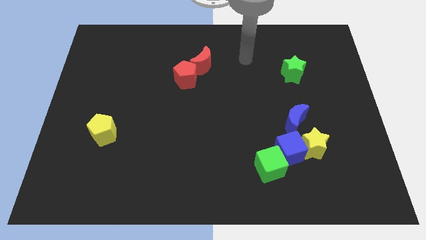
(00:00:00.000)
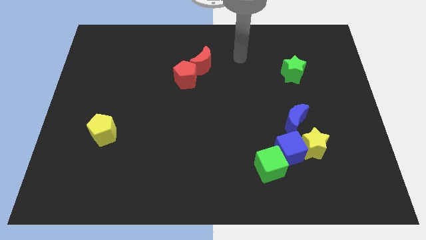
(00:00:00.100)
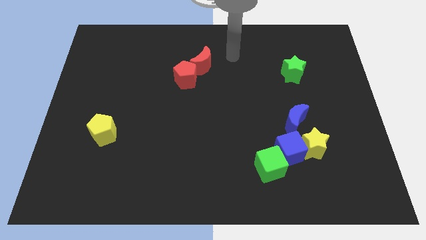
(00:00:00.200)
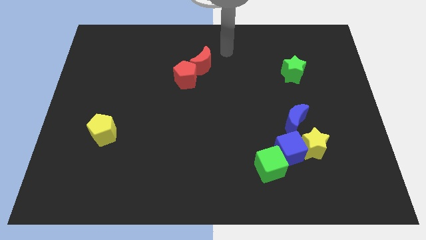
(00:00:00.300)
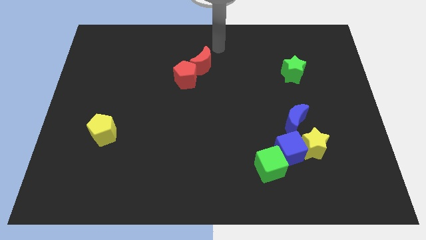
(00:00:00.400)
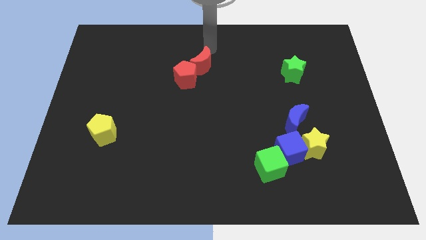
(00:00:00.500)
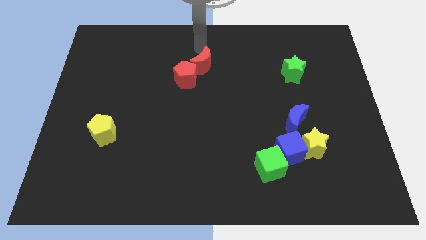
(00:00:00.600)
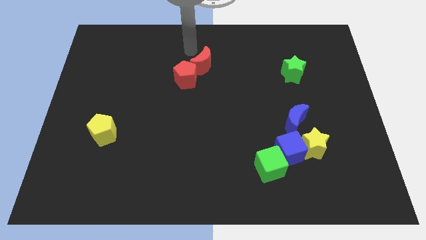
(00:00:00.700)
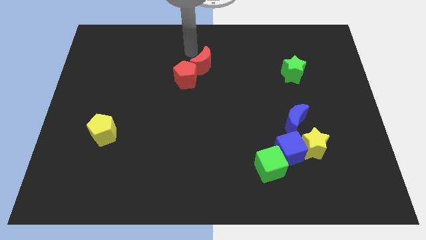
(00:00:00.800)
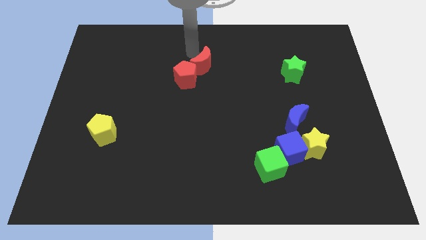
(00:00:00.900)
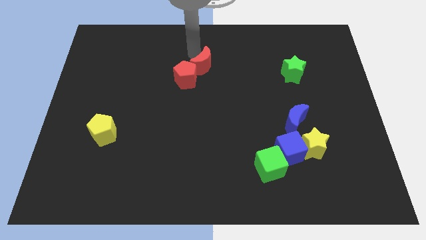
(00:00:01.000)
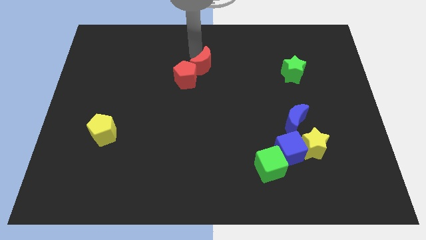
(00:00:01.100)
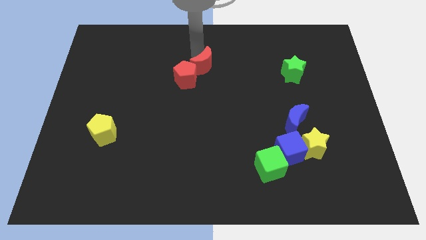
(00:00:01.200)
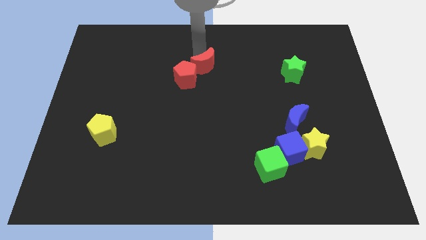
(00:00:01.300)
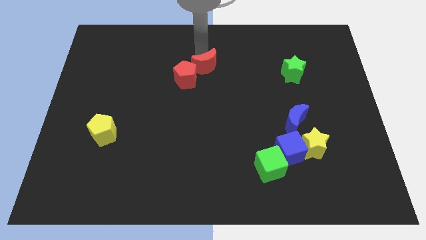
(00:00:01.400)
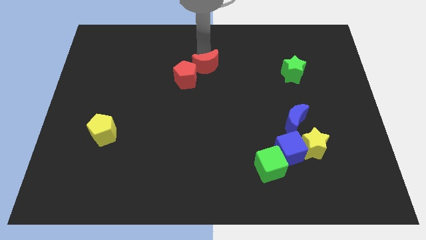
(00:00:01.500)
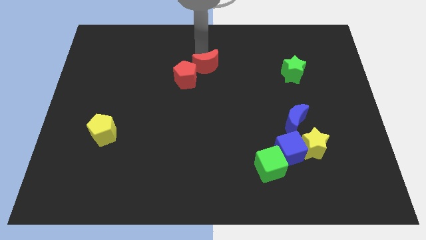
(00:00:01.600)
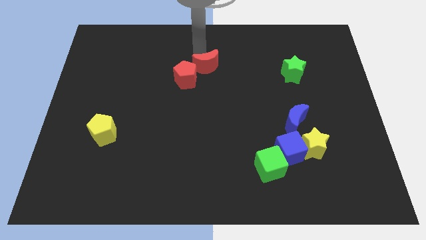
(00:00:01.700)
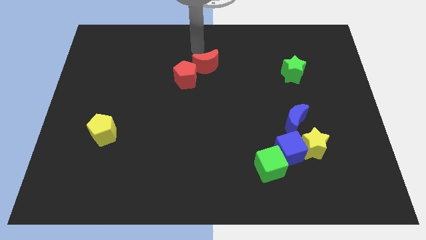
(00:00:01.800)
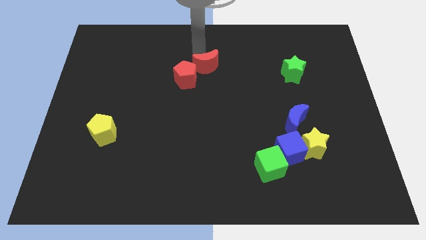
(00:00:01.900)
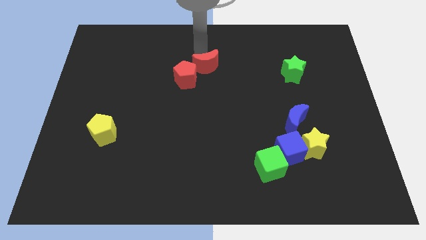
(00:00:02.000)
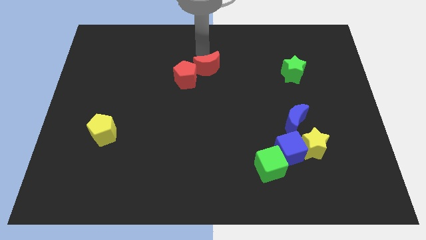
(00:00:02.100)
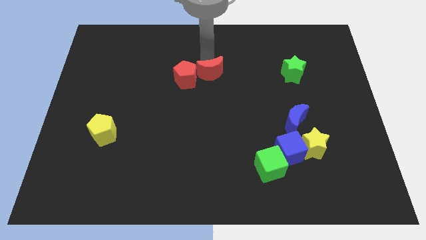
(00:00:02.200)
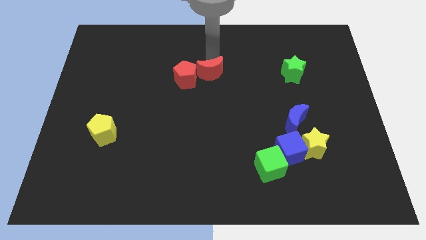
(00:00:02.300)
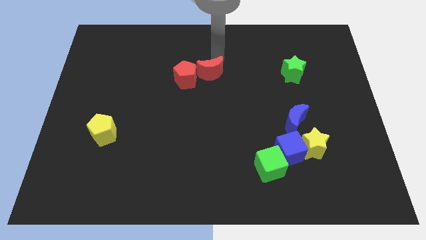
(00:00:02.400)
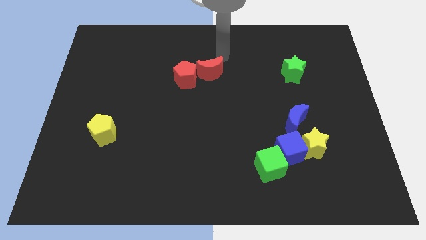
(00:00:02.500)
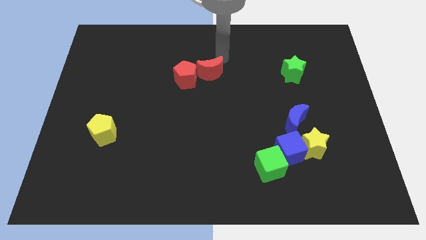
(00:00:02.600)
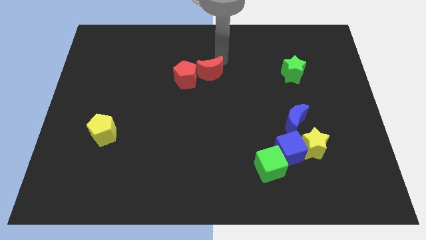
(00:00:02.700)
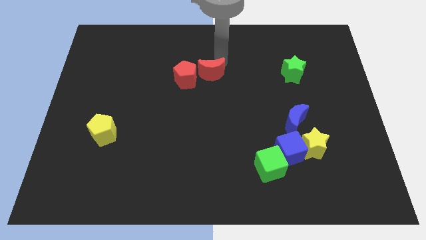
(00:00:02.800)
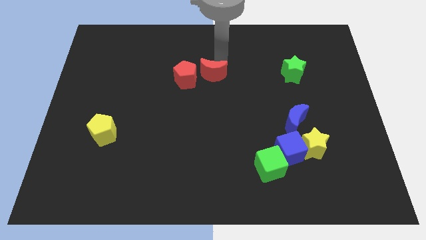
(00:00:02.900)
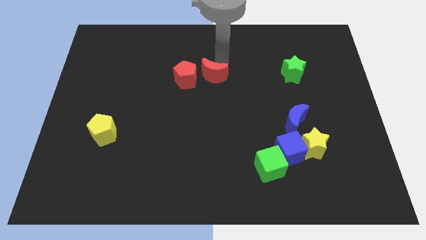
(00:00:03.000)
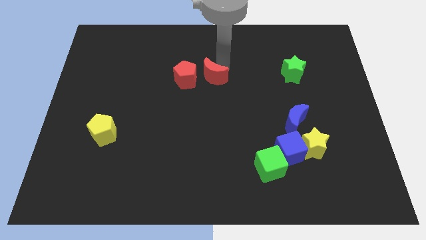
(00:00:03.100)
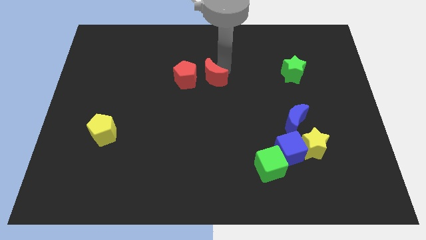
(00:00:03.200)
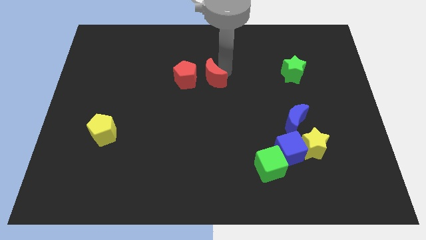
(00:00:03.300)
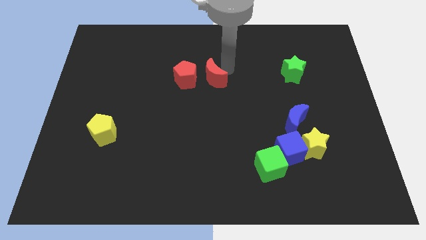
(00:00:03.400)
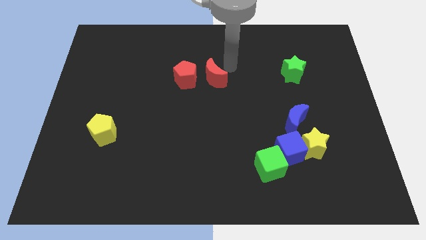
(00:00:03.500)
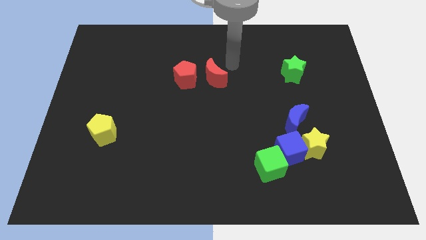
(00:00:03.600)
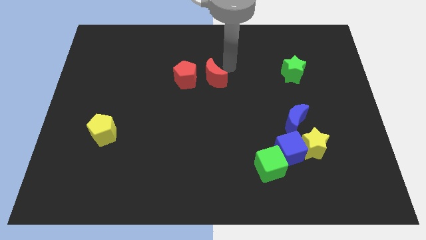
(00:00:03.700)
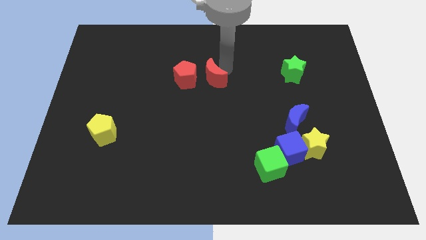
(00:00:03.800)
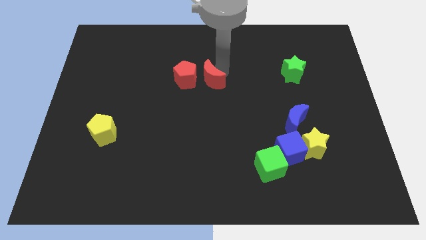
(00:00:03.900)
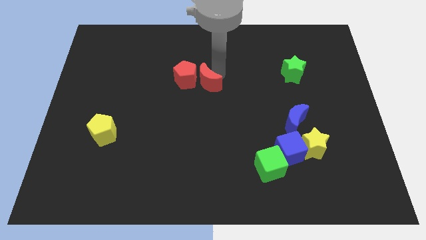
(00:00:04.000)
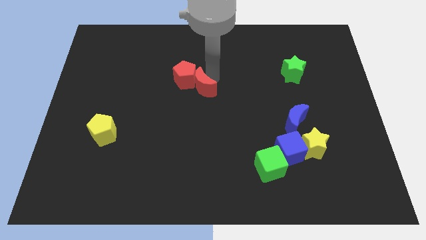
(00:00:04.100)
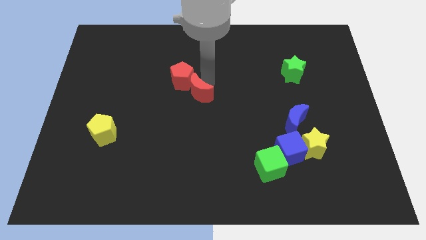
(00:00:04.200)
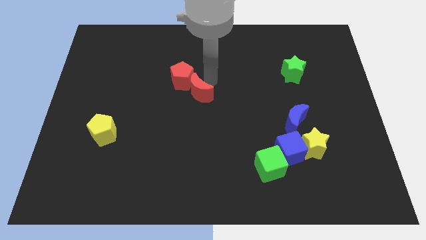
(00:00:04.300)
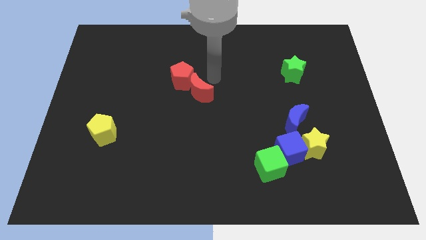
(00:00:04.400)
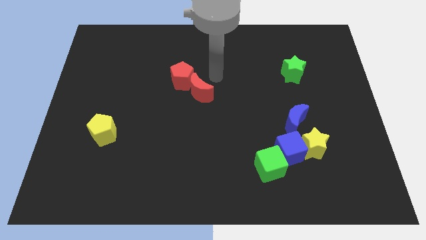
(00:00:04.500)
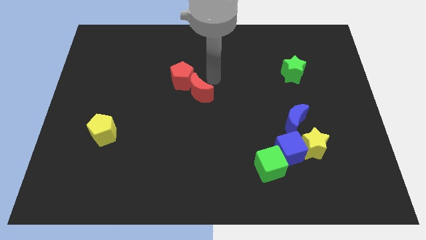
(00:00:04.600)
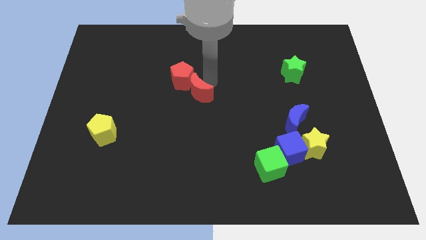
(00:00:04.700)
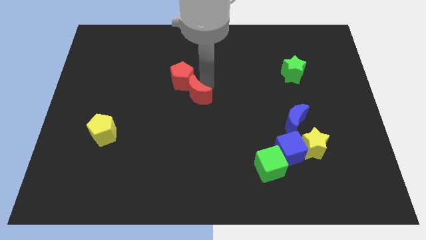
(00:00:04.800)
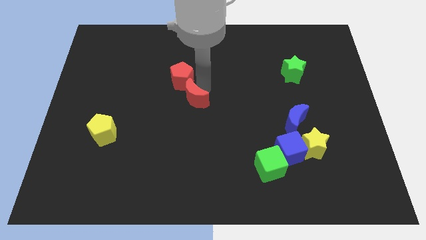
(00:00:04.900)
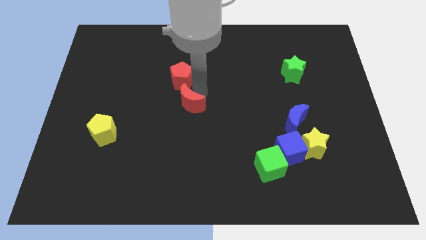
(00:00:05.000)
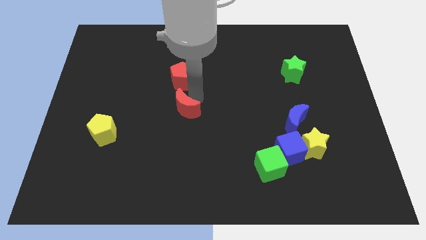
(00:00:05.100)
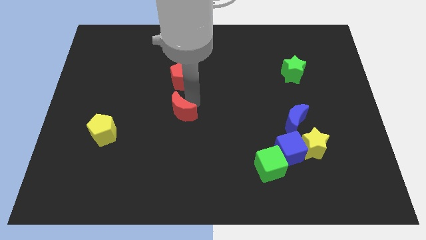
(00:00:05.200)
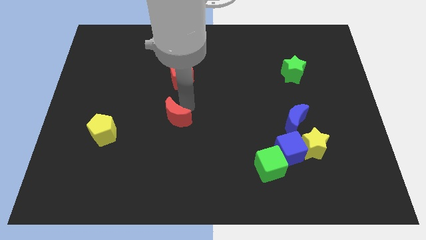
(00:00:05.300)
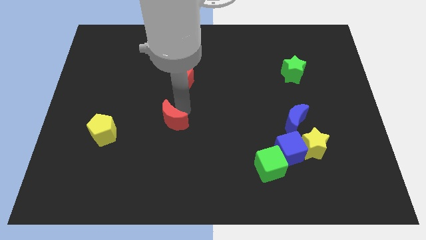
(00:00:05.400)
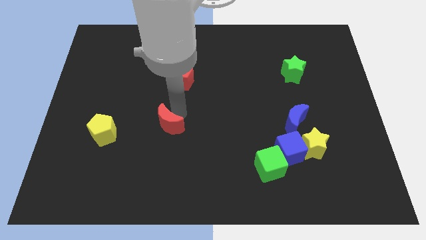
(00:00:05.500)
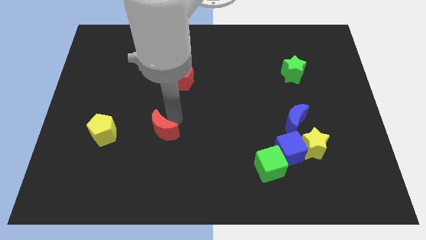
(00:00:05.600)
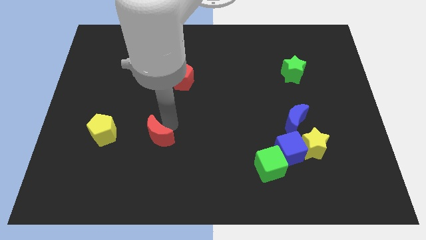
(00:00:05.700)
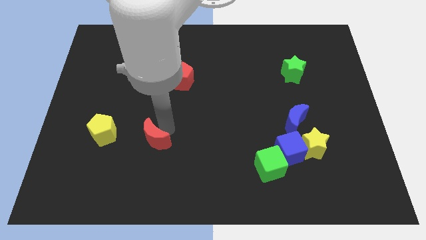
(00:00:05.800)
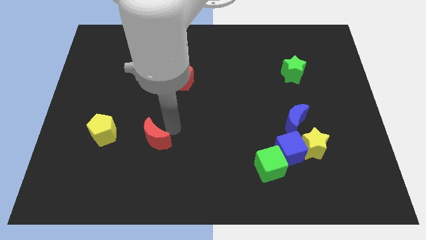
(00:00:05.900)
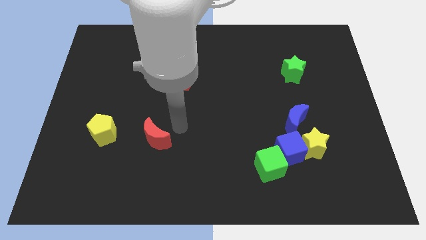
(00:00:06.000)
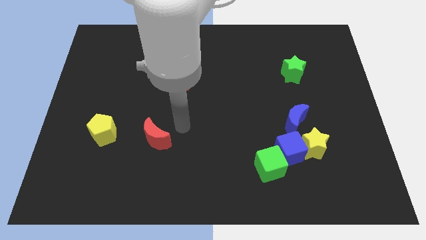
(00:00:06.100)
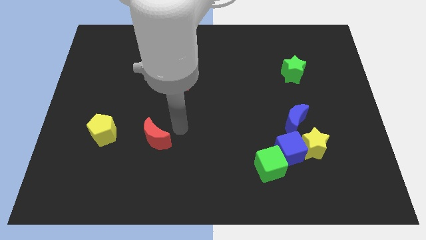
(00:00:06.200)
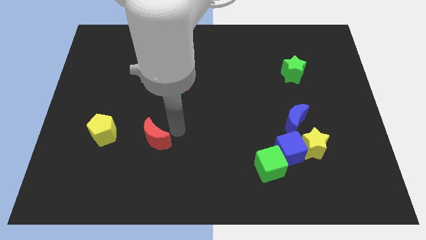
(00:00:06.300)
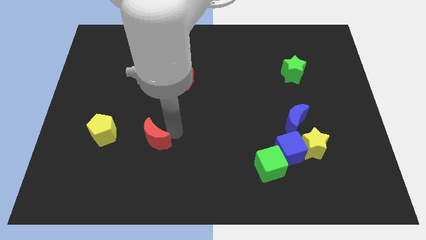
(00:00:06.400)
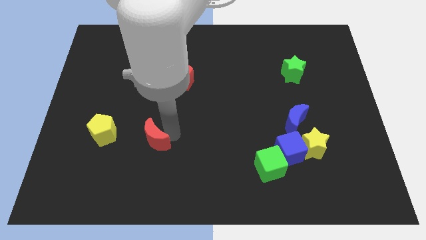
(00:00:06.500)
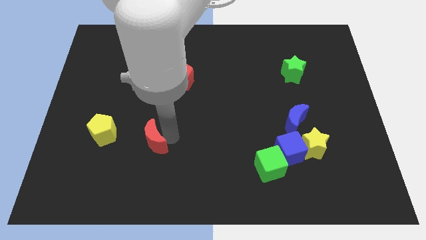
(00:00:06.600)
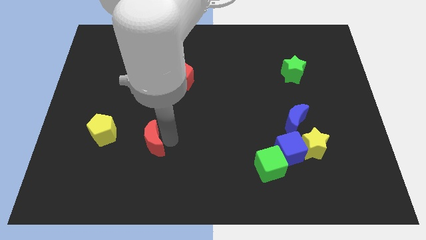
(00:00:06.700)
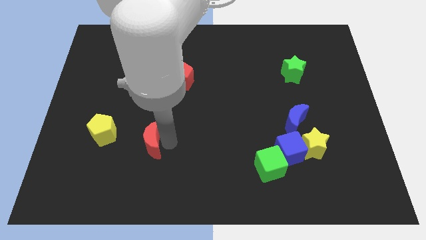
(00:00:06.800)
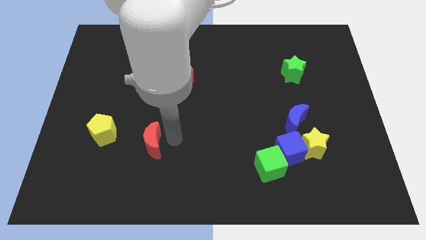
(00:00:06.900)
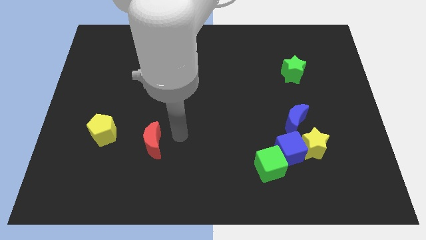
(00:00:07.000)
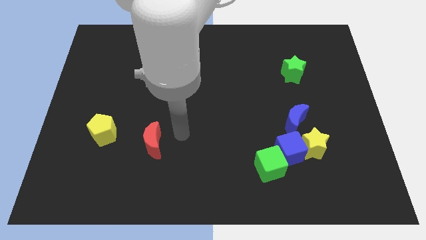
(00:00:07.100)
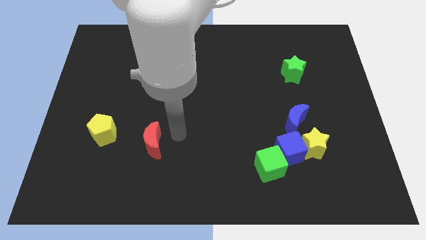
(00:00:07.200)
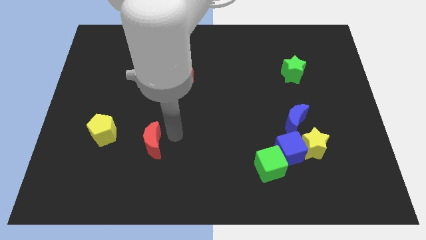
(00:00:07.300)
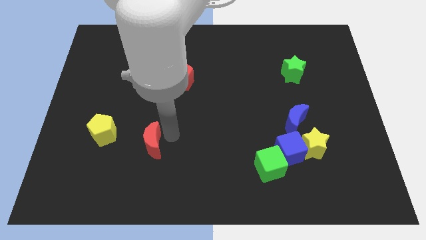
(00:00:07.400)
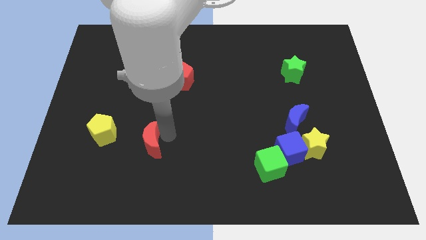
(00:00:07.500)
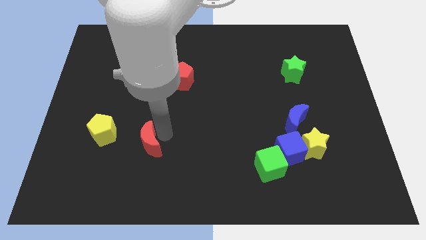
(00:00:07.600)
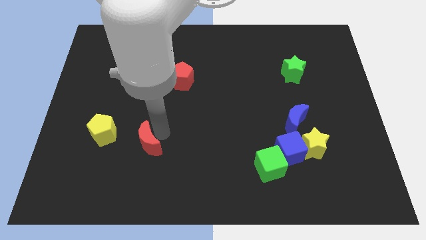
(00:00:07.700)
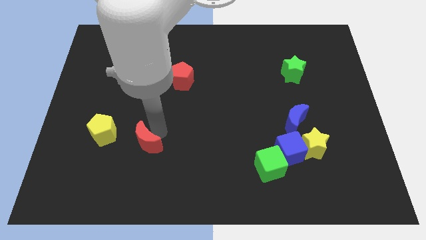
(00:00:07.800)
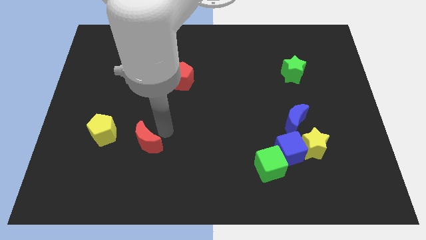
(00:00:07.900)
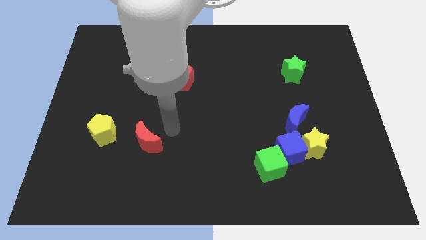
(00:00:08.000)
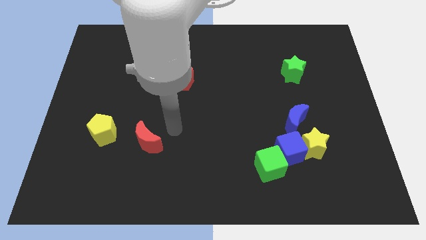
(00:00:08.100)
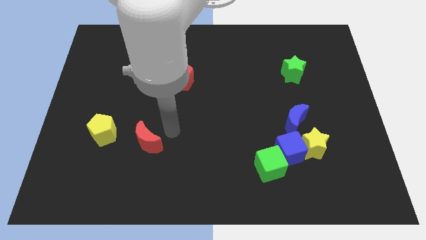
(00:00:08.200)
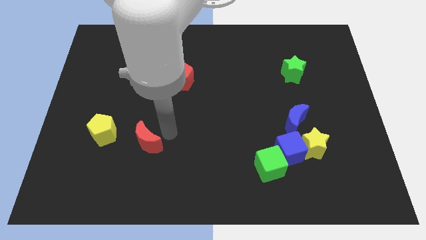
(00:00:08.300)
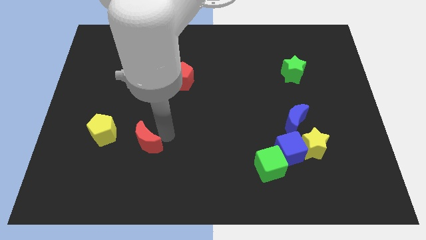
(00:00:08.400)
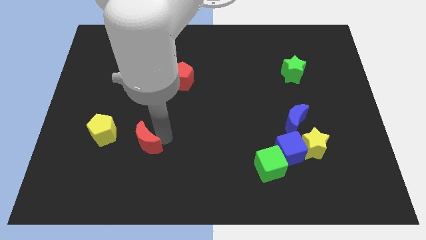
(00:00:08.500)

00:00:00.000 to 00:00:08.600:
move the red moon to the bottom right side of the yellow pentagon
